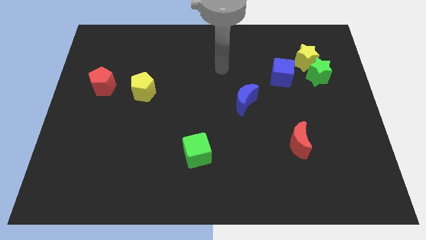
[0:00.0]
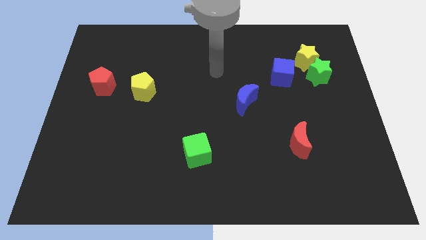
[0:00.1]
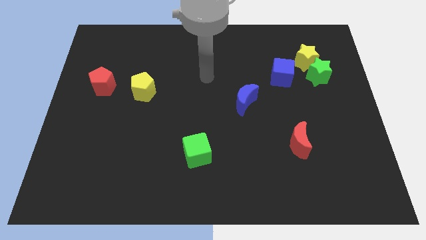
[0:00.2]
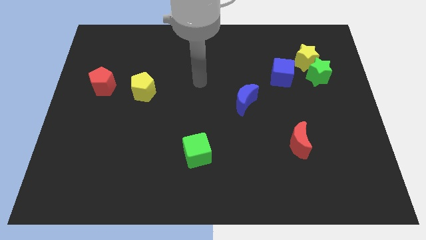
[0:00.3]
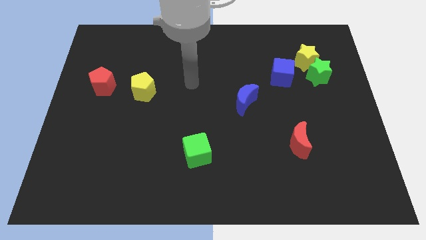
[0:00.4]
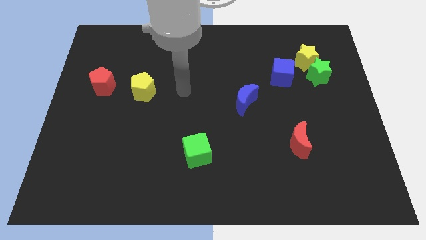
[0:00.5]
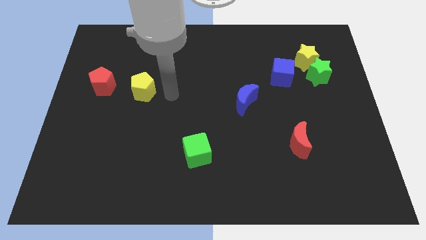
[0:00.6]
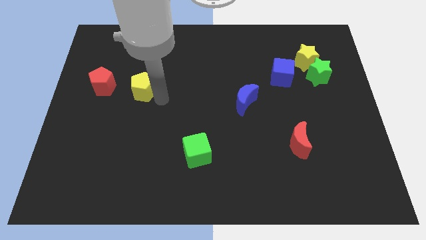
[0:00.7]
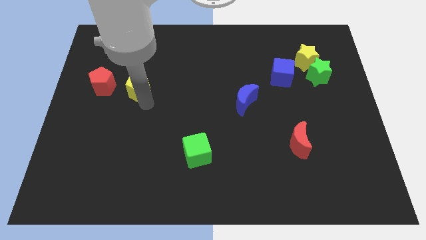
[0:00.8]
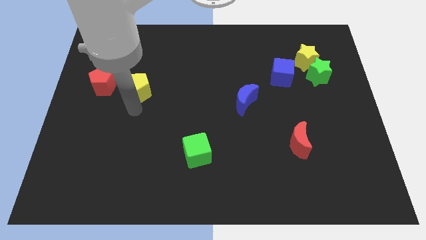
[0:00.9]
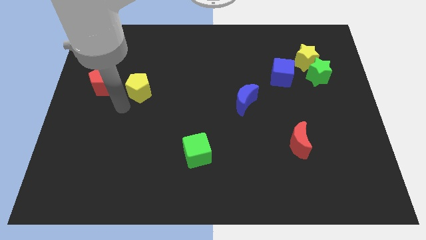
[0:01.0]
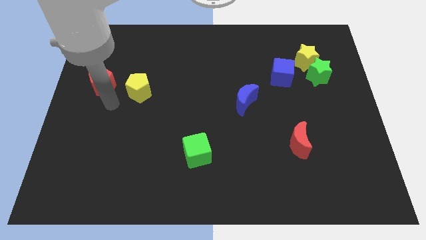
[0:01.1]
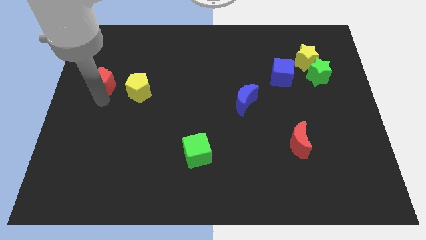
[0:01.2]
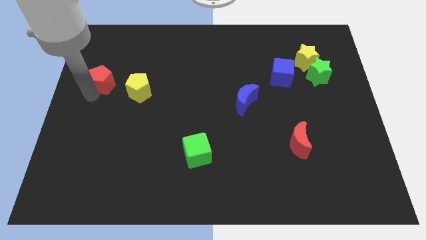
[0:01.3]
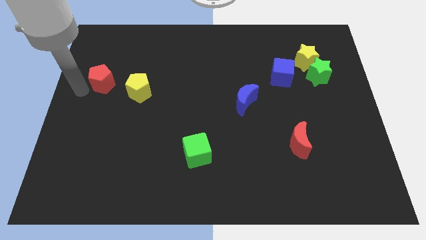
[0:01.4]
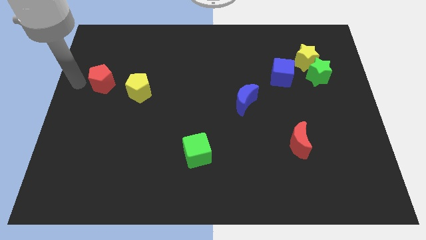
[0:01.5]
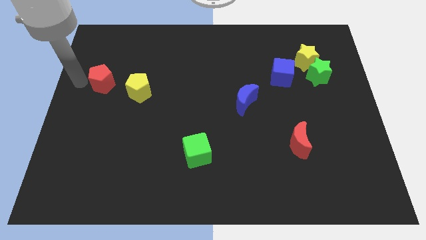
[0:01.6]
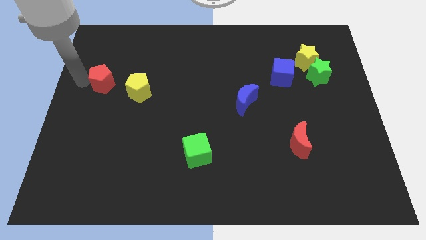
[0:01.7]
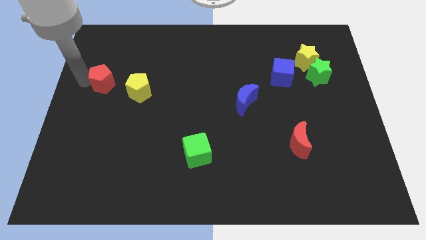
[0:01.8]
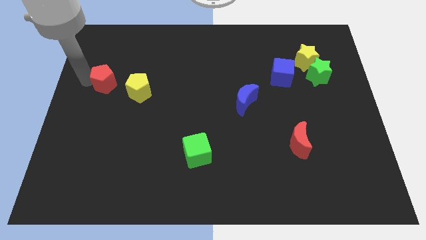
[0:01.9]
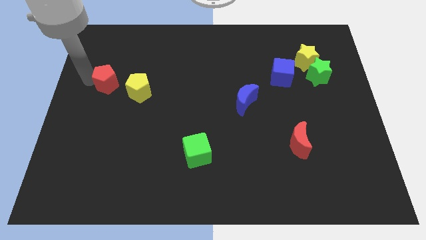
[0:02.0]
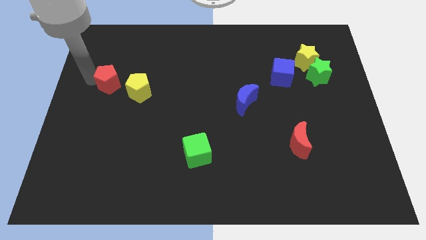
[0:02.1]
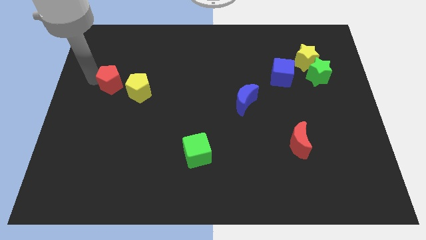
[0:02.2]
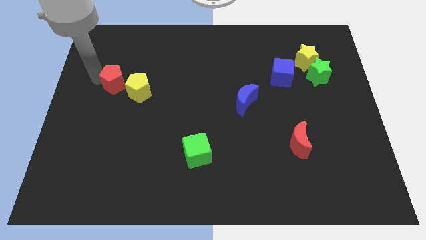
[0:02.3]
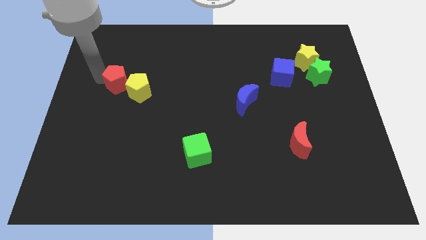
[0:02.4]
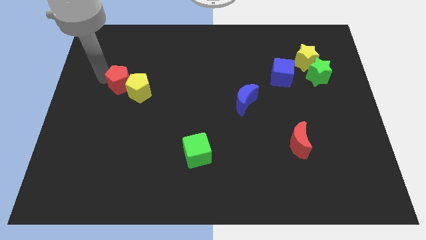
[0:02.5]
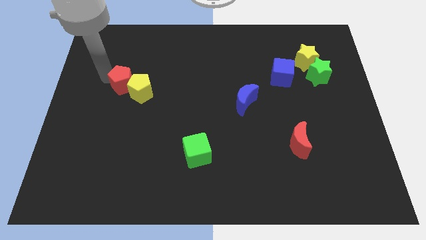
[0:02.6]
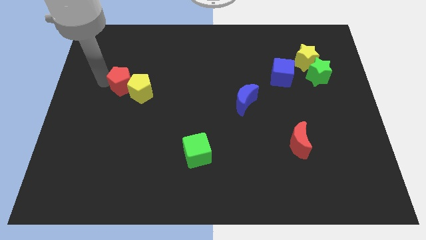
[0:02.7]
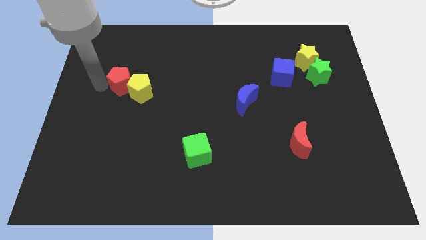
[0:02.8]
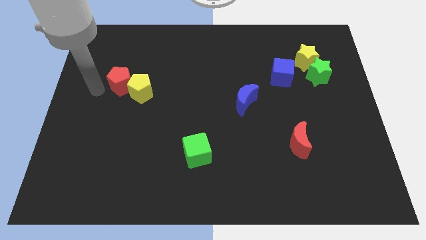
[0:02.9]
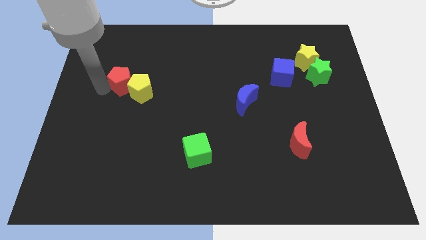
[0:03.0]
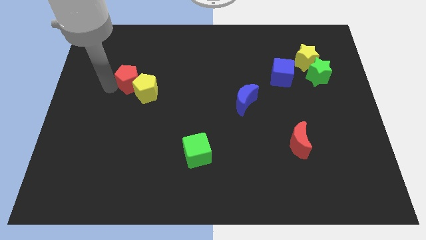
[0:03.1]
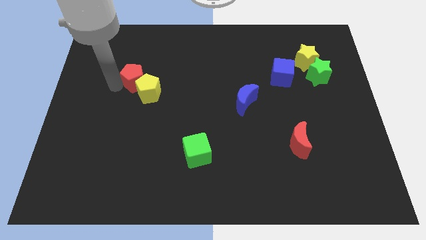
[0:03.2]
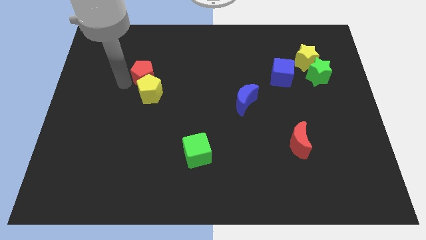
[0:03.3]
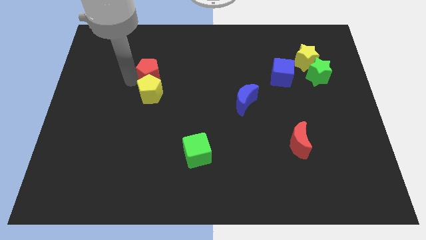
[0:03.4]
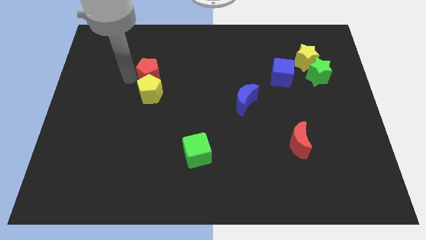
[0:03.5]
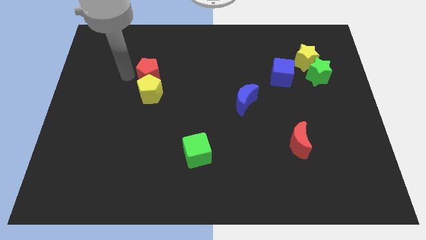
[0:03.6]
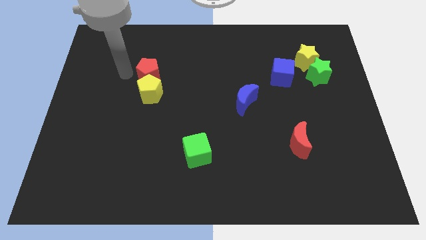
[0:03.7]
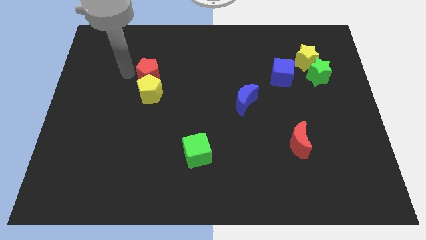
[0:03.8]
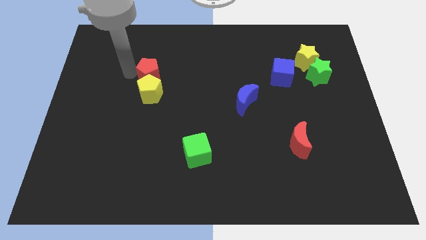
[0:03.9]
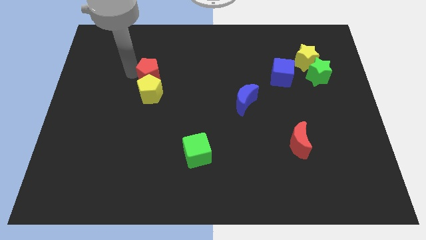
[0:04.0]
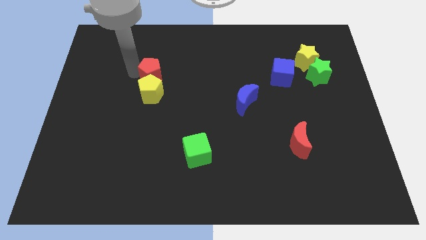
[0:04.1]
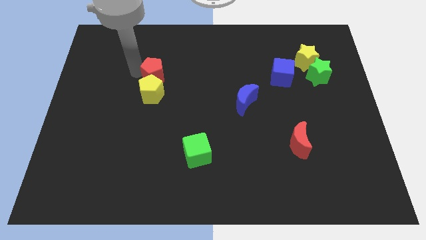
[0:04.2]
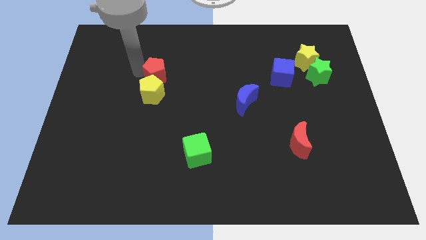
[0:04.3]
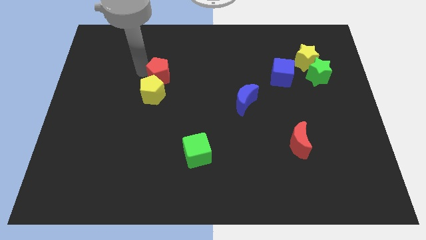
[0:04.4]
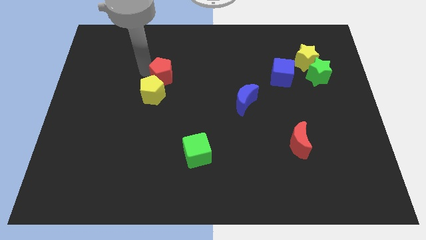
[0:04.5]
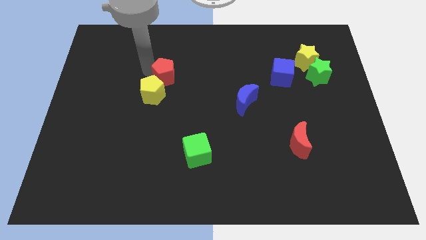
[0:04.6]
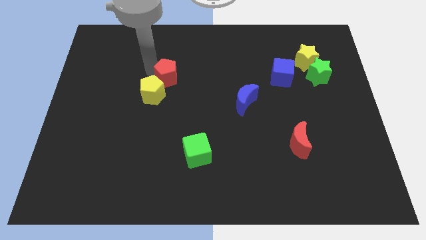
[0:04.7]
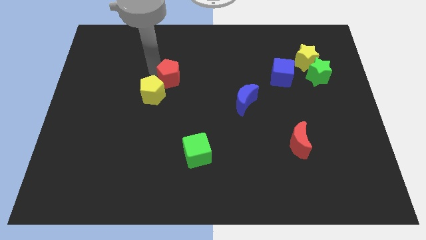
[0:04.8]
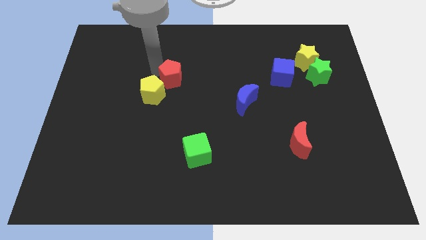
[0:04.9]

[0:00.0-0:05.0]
move the red pentagon to the center of the board

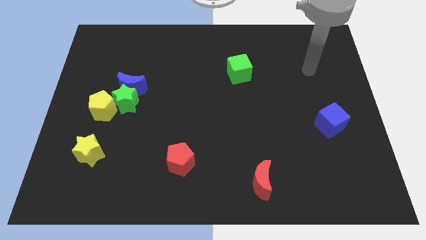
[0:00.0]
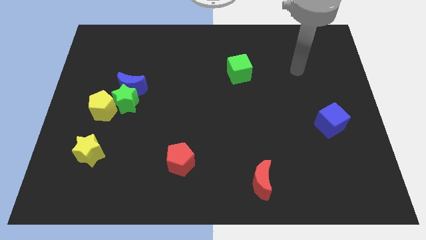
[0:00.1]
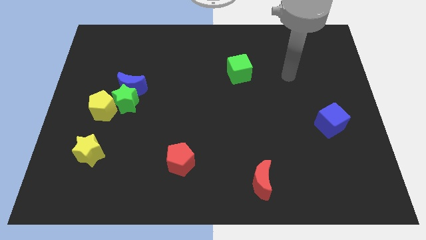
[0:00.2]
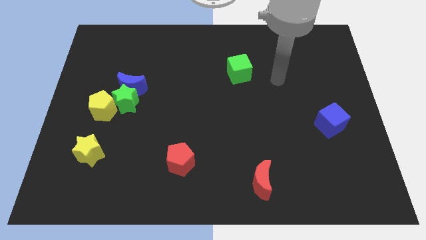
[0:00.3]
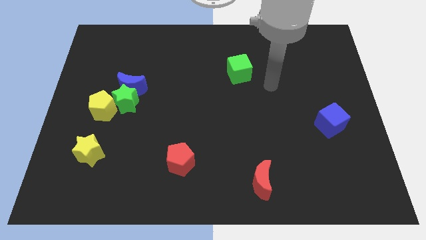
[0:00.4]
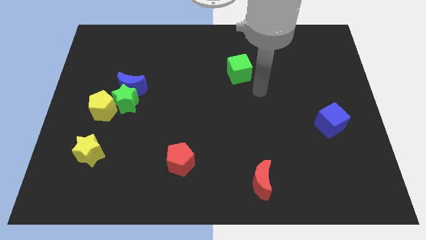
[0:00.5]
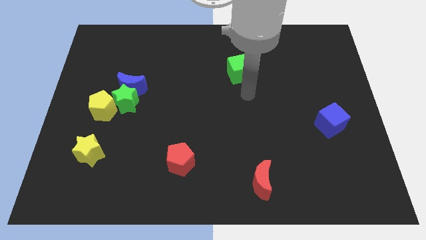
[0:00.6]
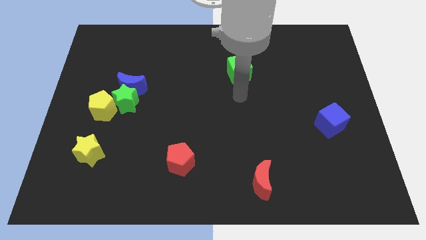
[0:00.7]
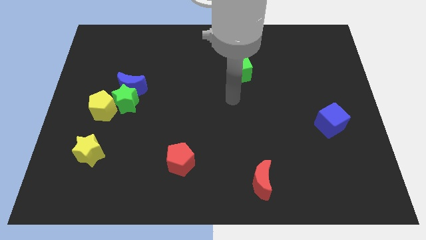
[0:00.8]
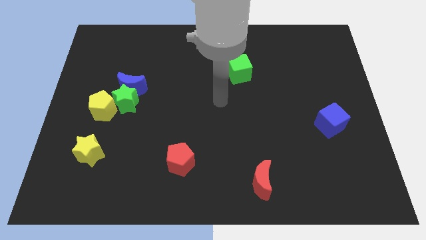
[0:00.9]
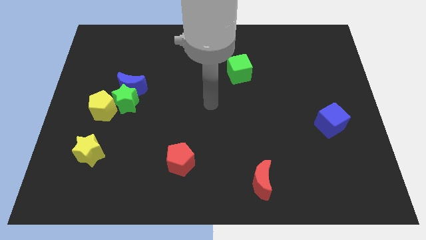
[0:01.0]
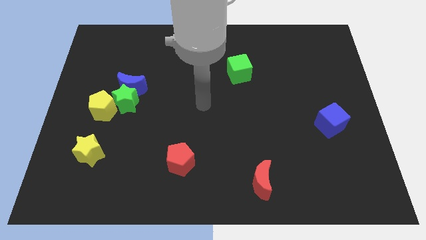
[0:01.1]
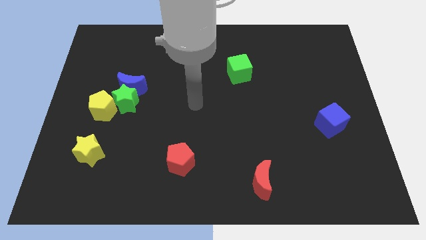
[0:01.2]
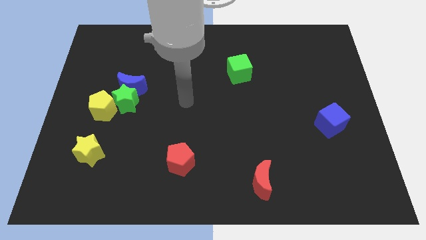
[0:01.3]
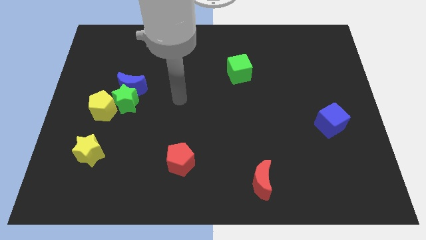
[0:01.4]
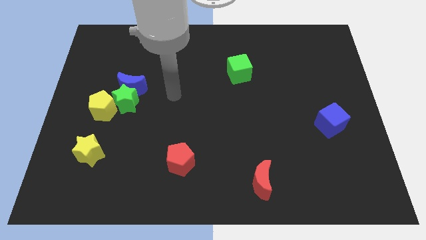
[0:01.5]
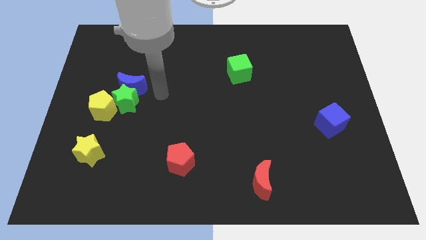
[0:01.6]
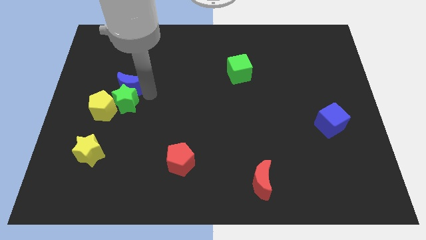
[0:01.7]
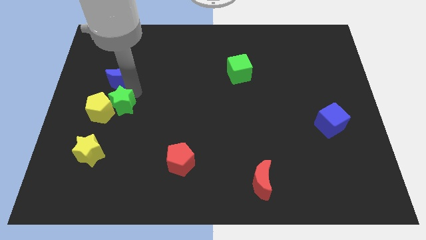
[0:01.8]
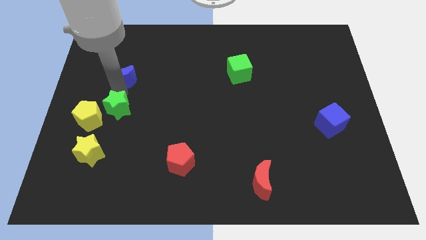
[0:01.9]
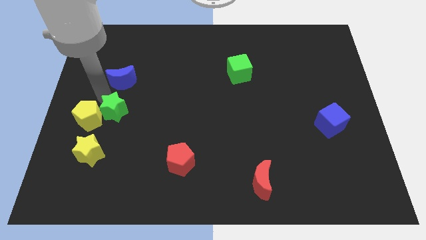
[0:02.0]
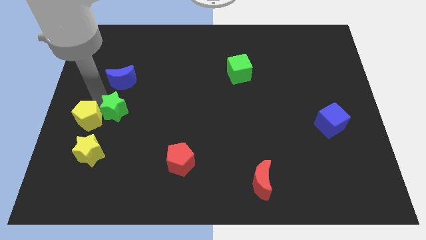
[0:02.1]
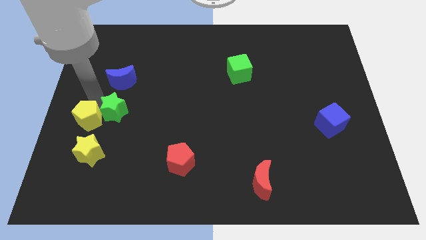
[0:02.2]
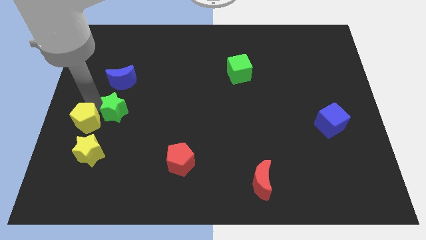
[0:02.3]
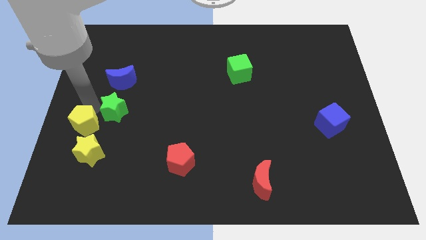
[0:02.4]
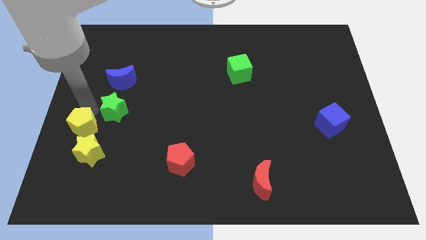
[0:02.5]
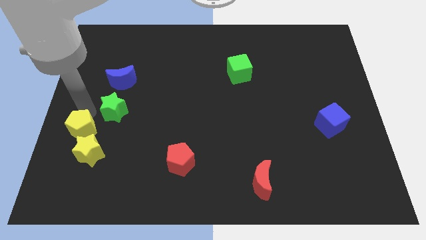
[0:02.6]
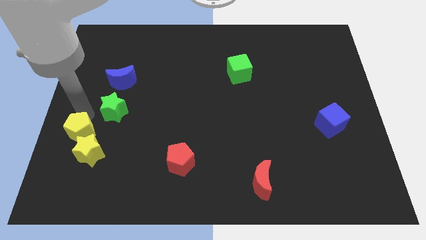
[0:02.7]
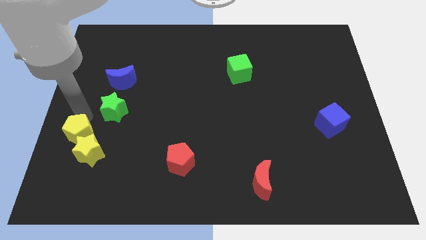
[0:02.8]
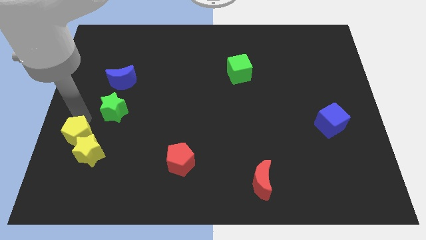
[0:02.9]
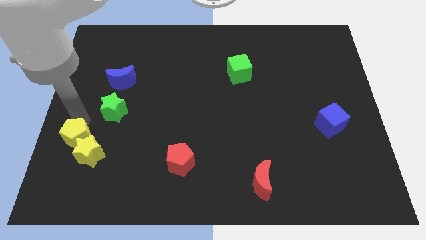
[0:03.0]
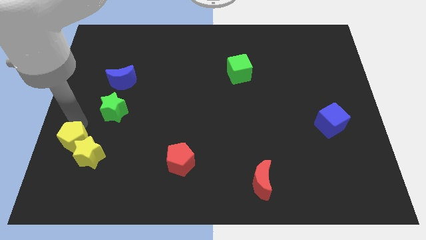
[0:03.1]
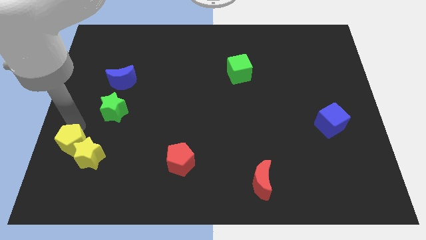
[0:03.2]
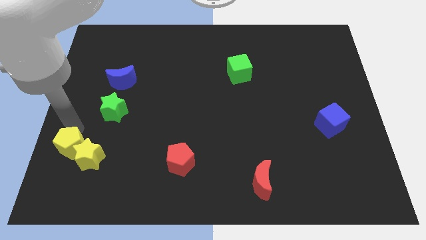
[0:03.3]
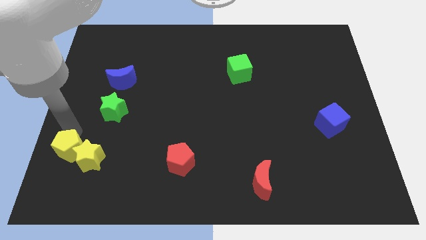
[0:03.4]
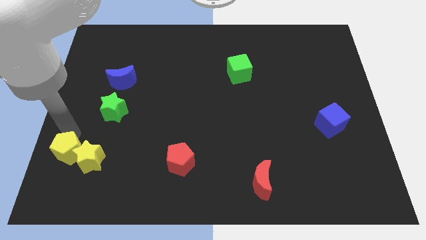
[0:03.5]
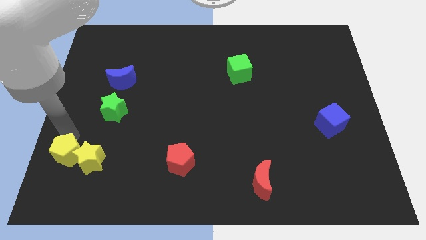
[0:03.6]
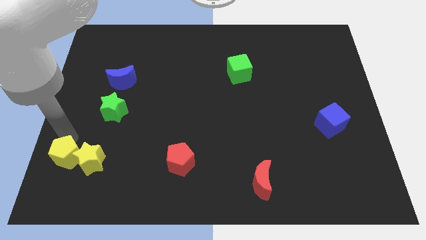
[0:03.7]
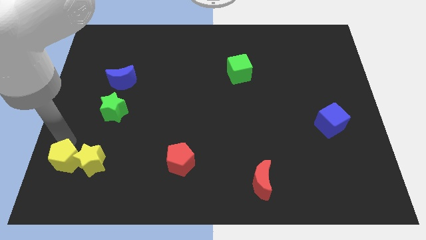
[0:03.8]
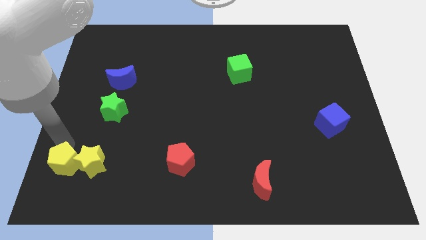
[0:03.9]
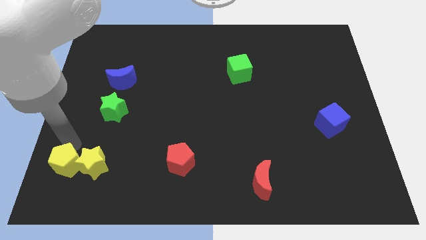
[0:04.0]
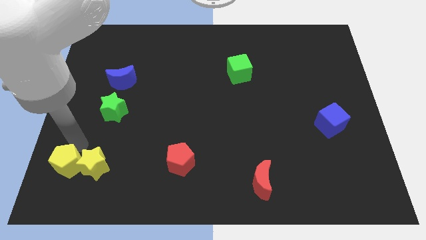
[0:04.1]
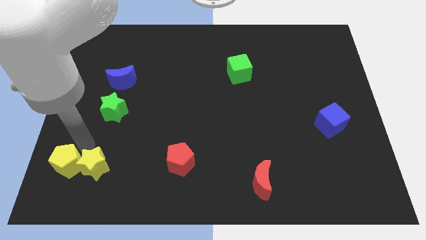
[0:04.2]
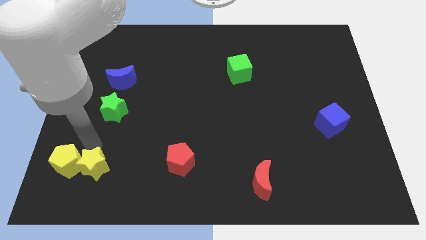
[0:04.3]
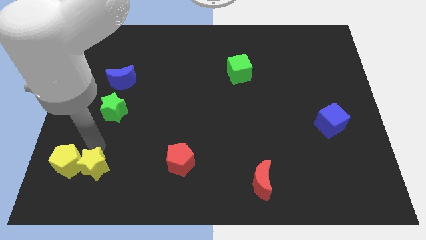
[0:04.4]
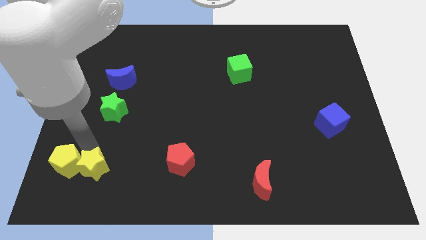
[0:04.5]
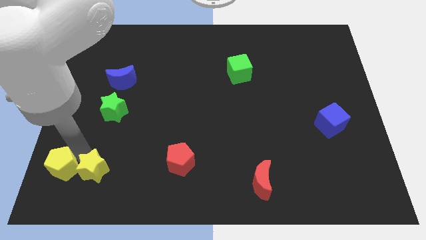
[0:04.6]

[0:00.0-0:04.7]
move the yellow pentagon to the bottom left of the board
